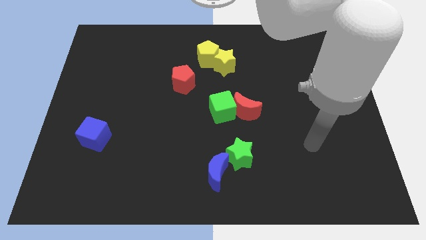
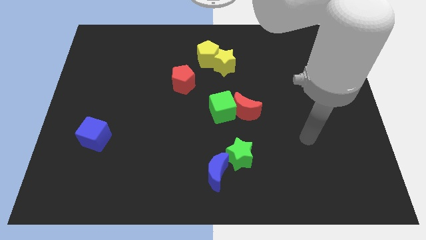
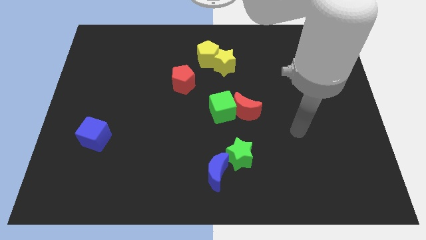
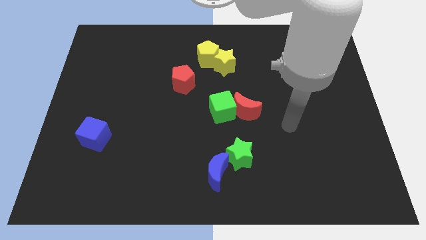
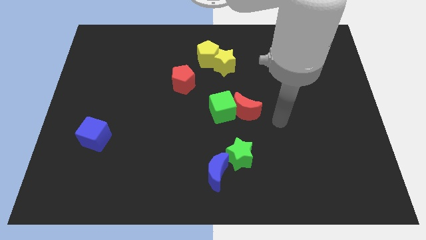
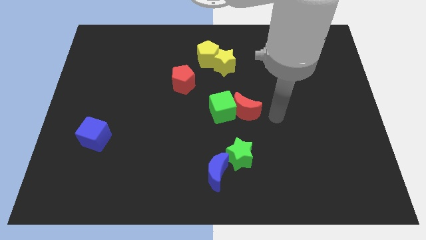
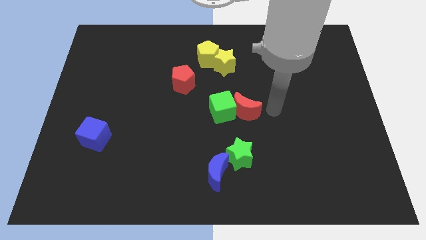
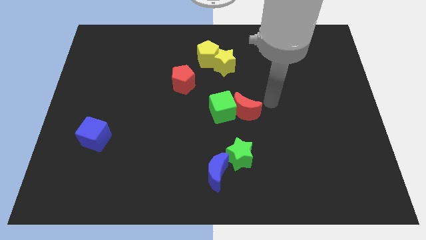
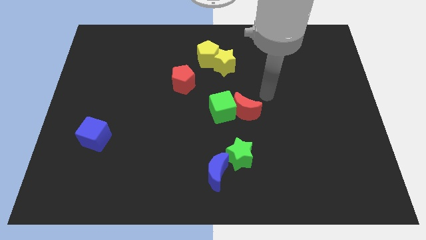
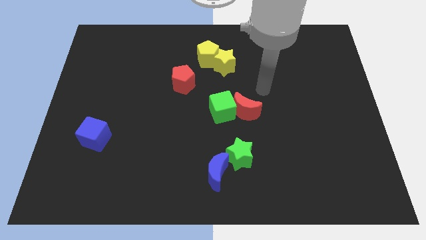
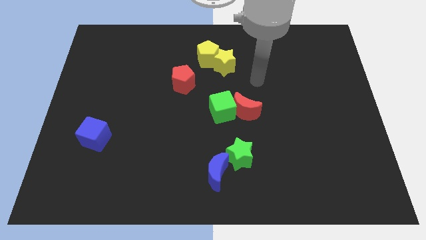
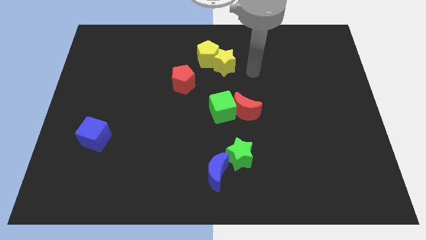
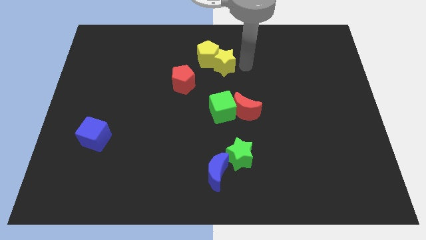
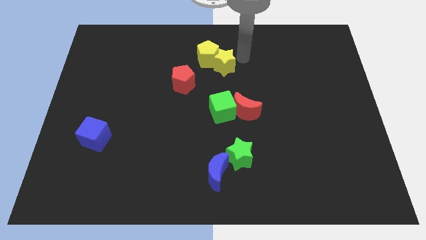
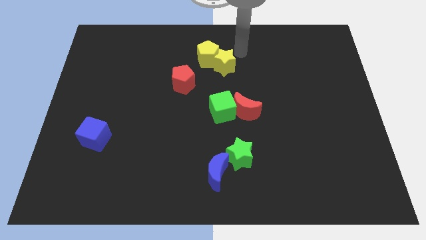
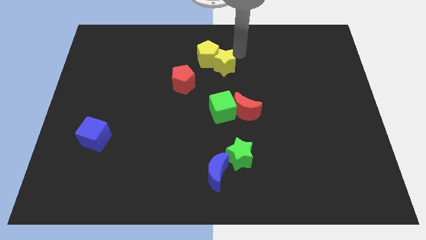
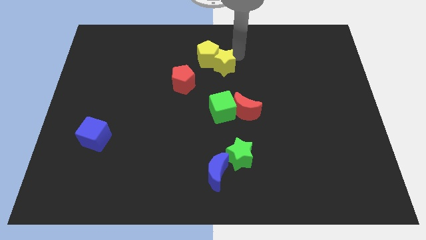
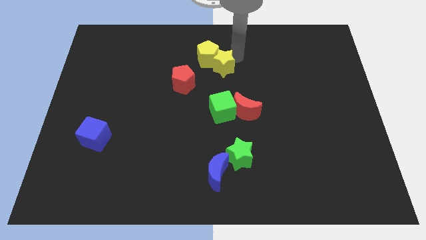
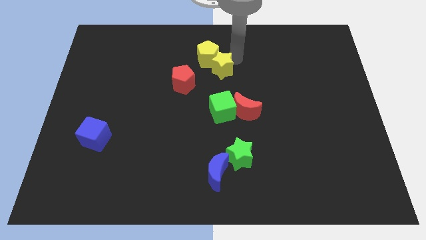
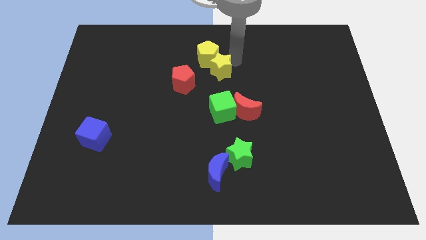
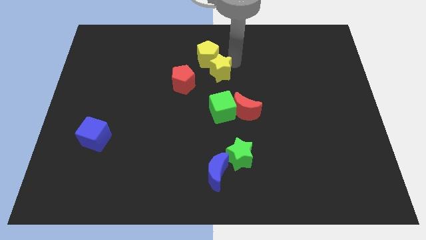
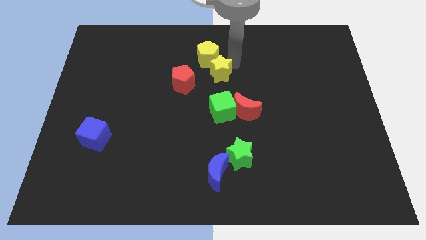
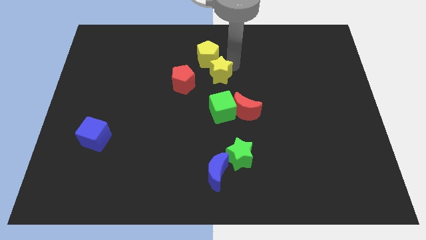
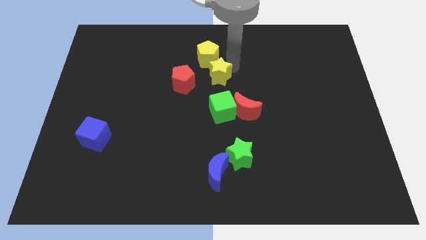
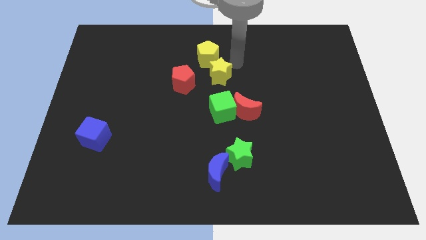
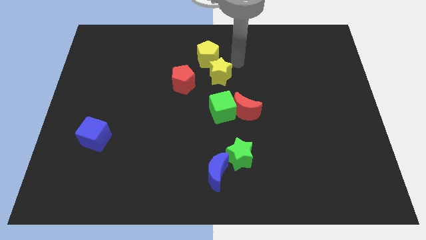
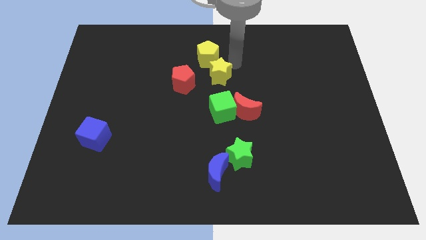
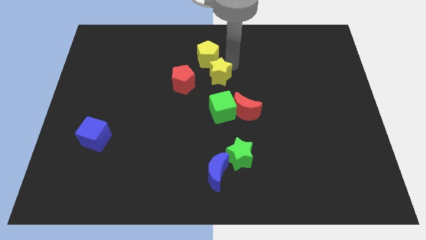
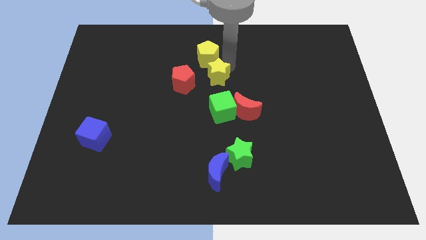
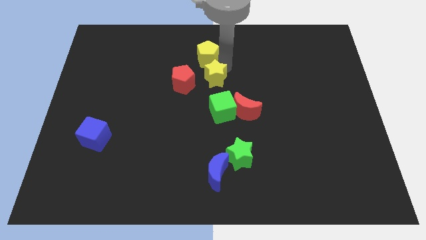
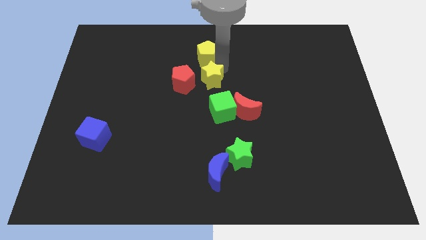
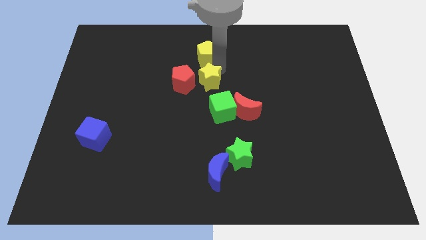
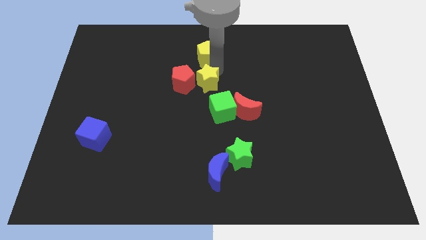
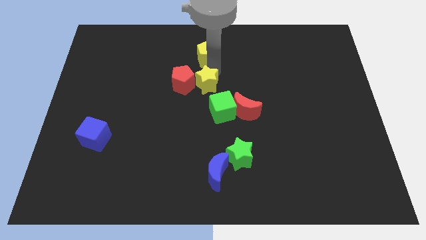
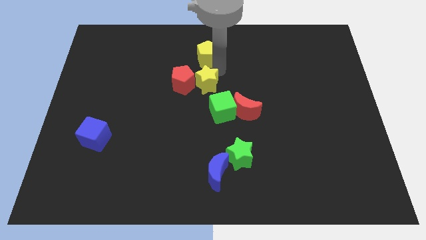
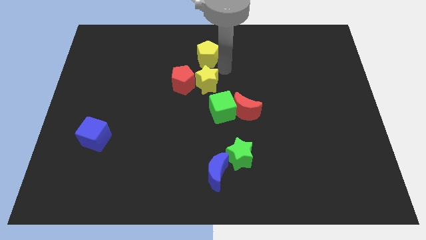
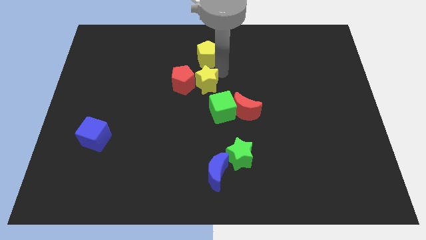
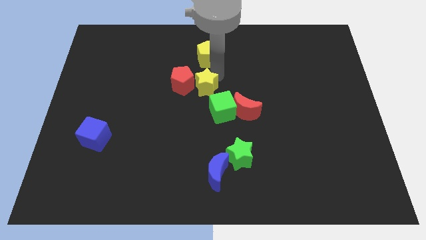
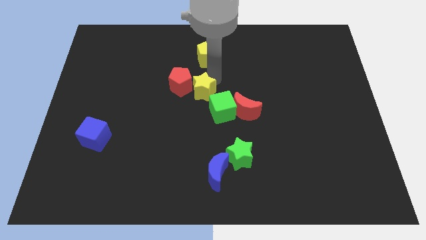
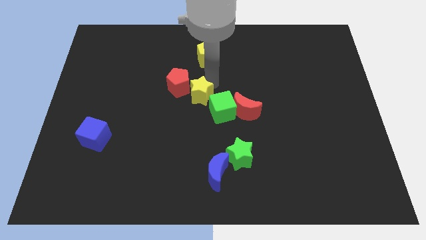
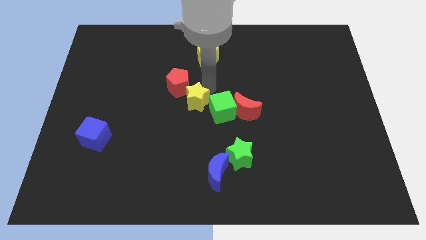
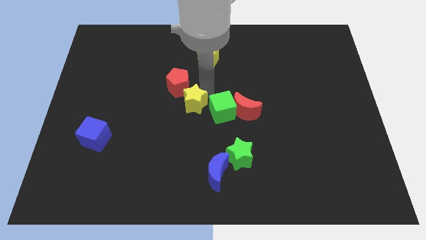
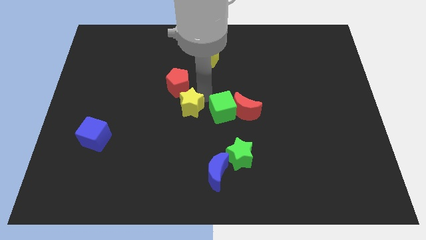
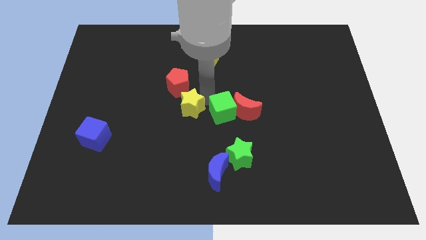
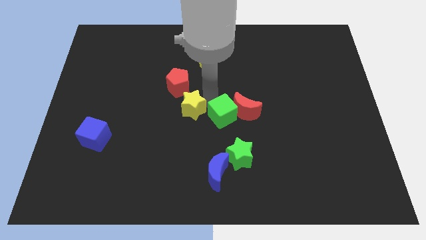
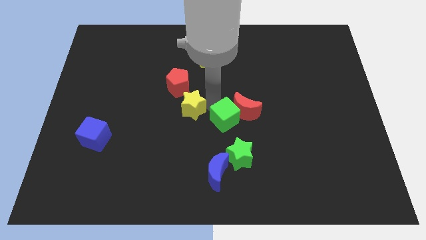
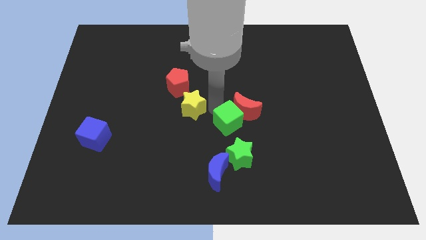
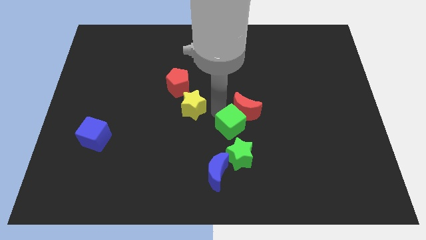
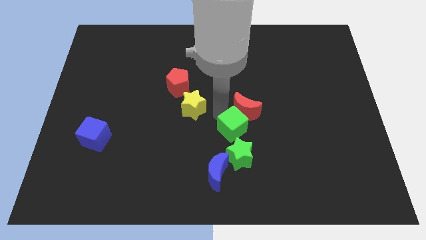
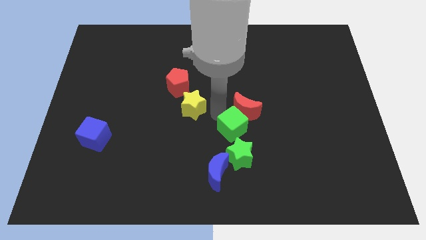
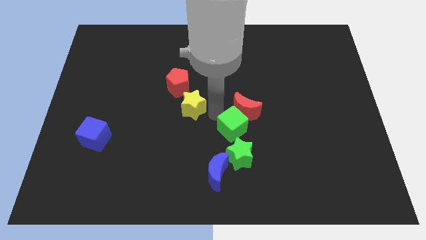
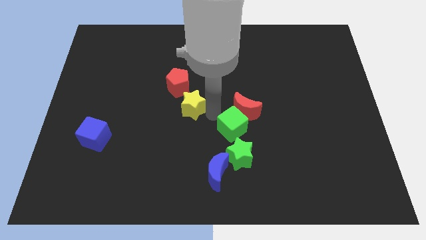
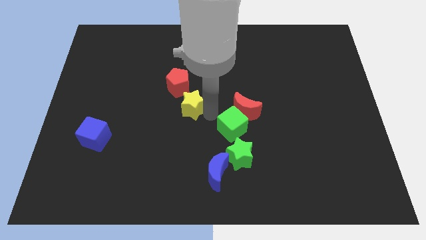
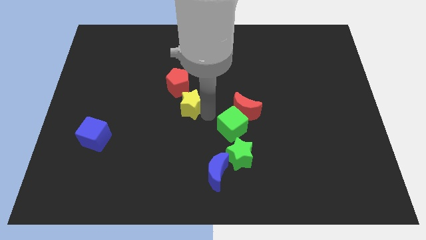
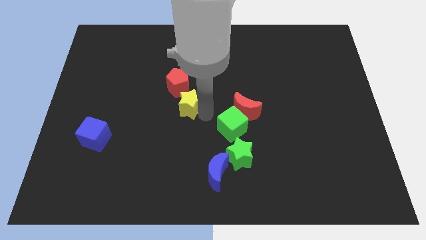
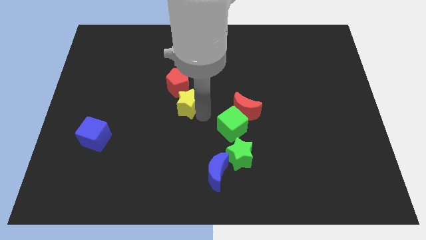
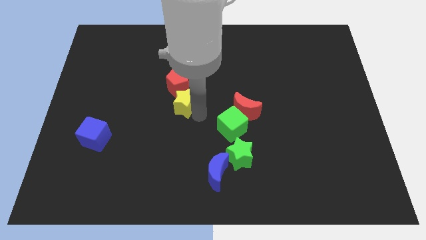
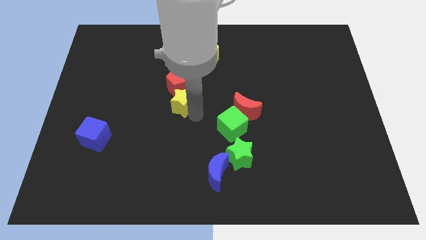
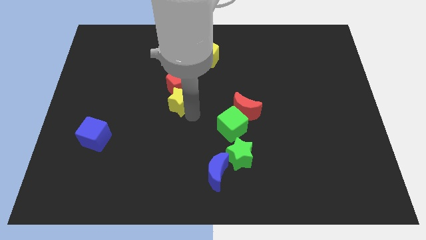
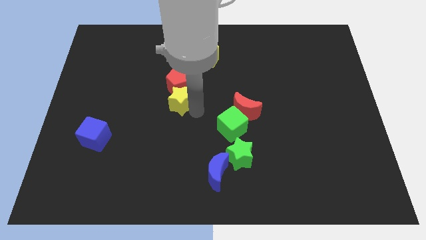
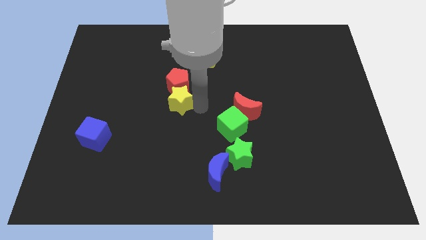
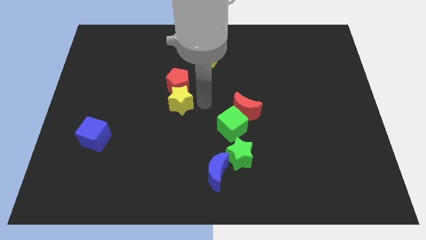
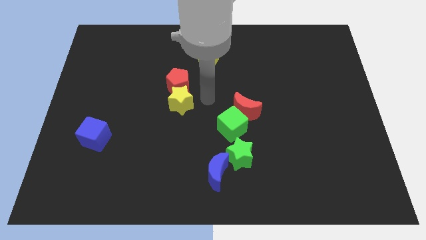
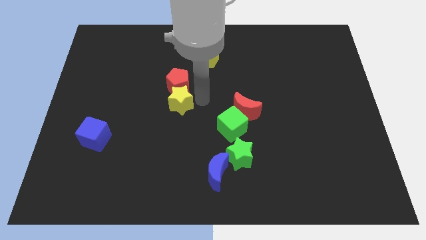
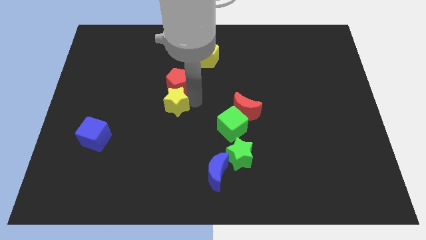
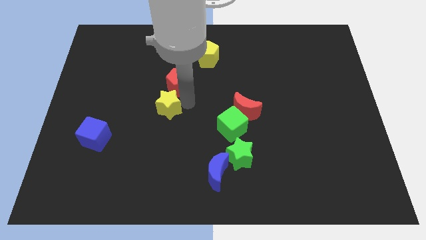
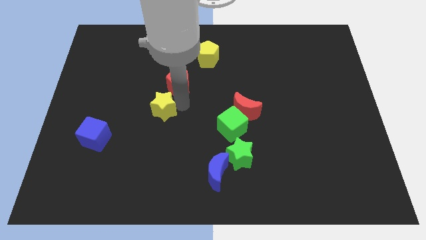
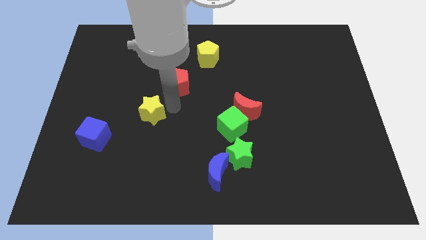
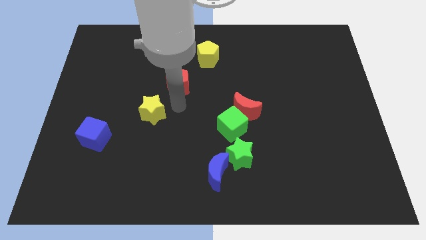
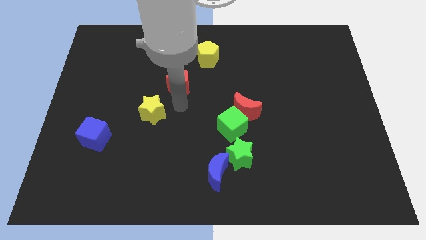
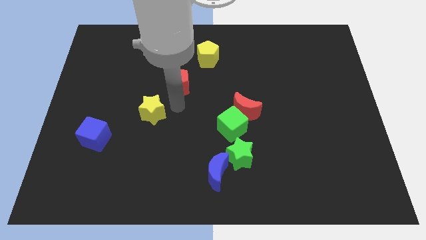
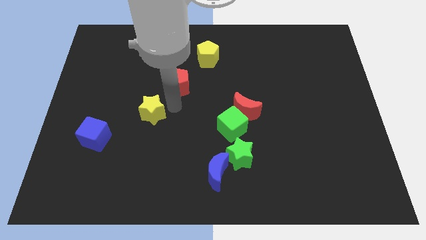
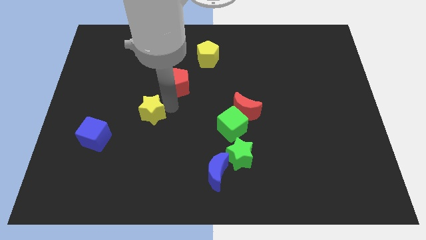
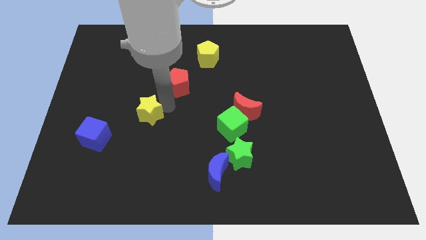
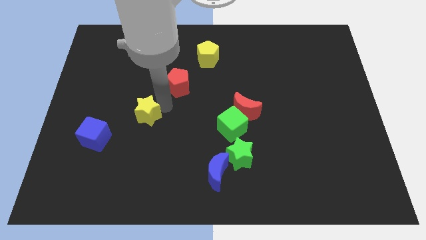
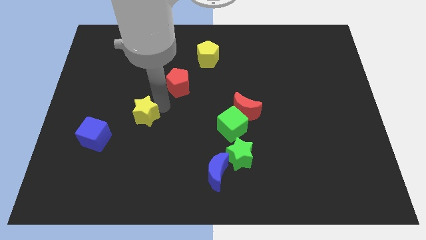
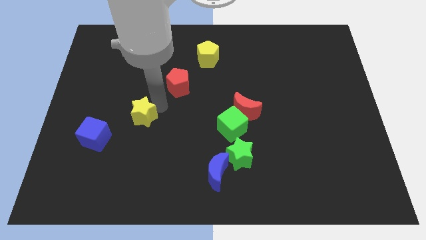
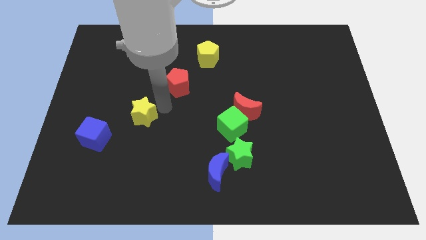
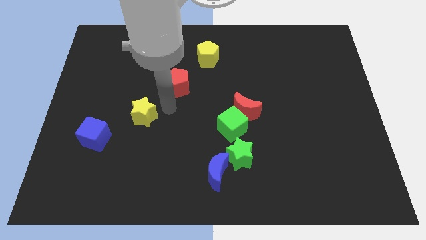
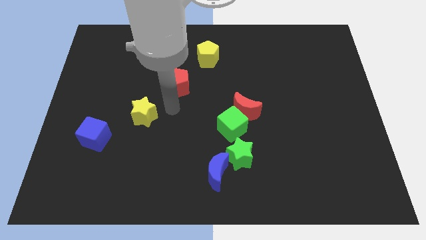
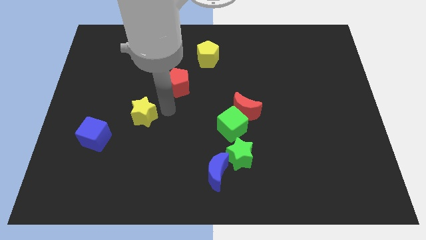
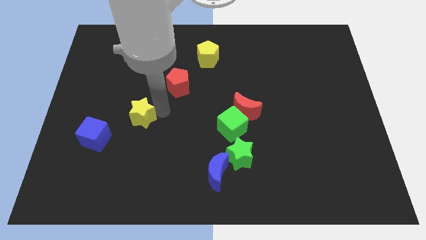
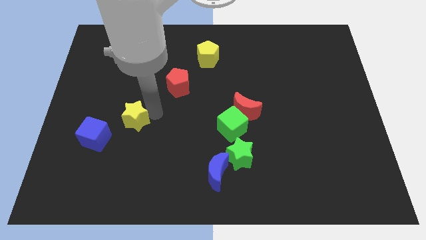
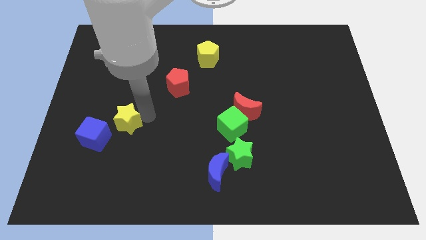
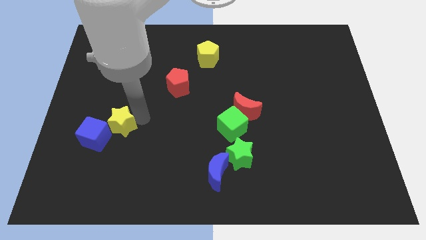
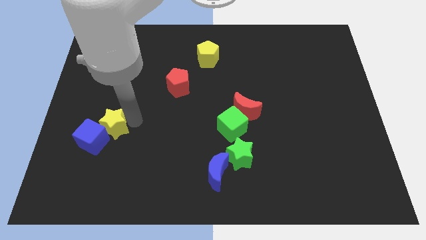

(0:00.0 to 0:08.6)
push the yellow star next to the blue cube
